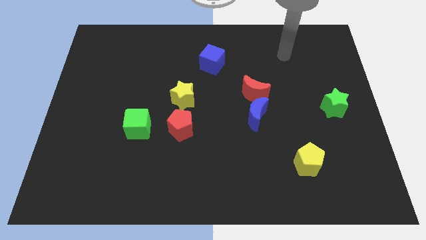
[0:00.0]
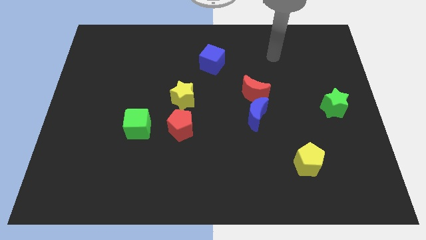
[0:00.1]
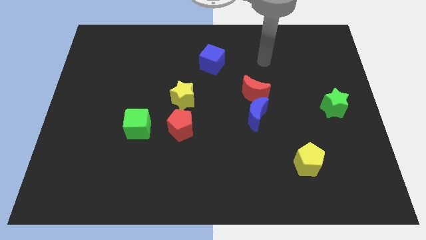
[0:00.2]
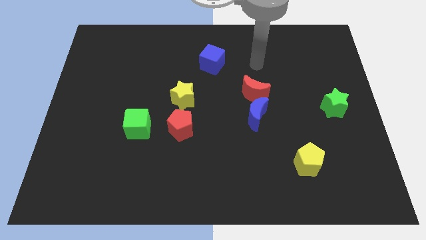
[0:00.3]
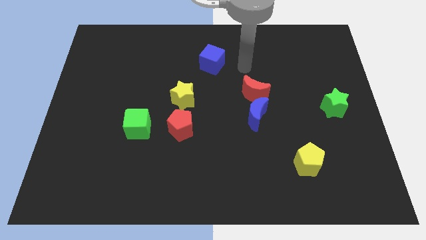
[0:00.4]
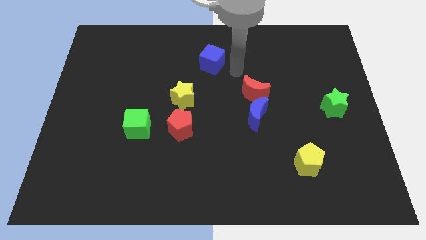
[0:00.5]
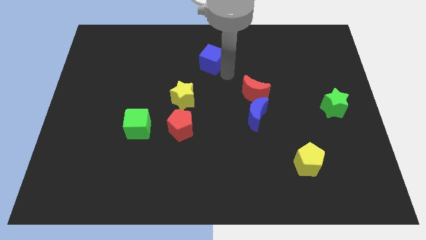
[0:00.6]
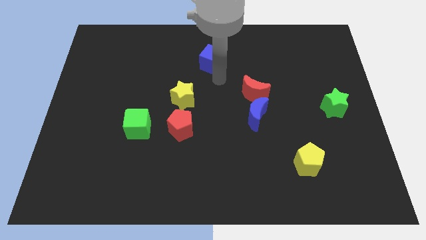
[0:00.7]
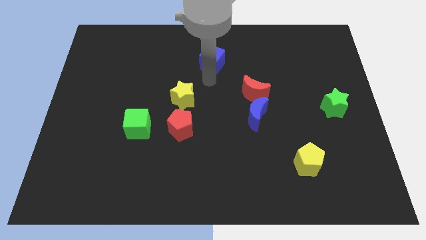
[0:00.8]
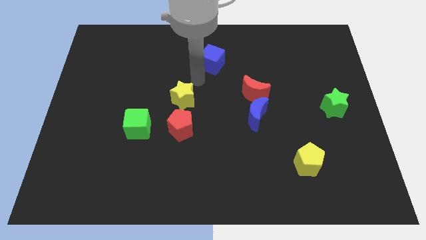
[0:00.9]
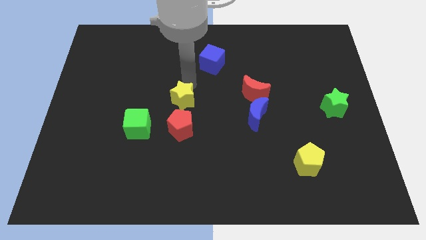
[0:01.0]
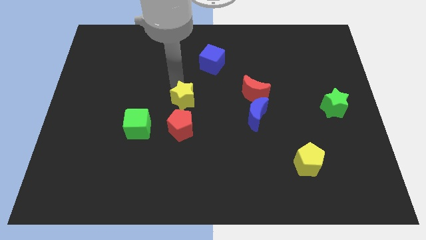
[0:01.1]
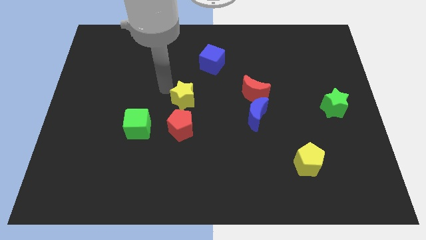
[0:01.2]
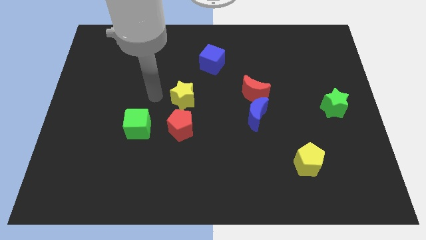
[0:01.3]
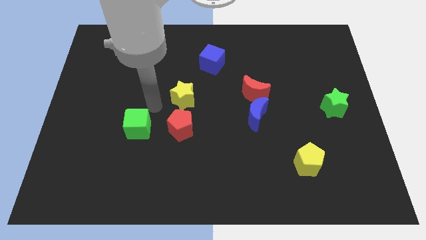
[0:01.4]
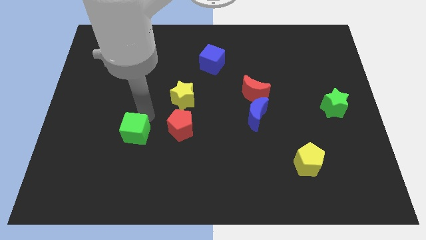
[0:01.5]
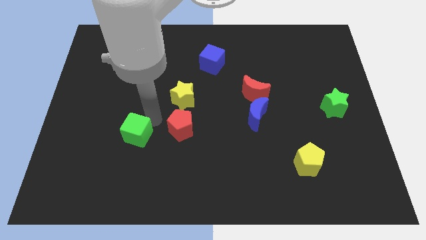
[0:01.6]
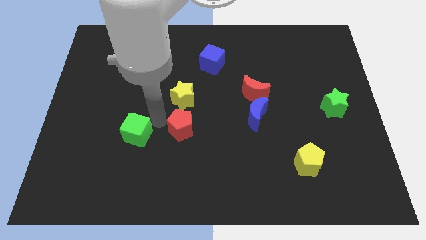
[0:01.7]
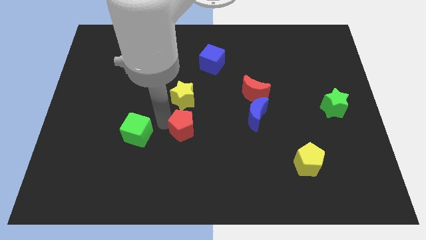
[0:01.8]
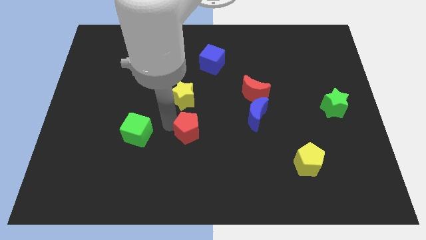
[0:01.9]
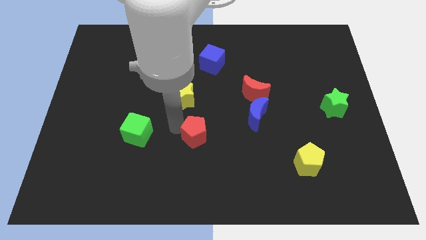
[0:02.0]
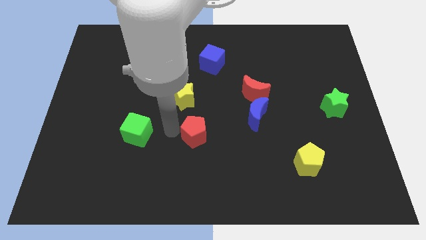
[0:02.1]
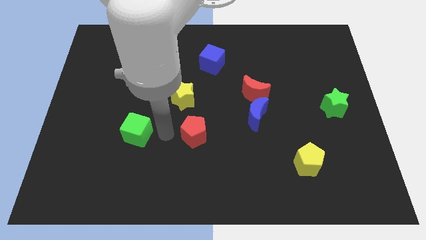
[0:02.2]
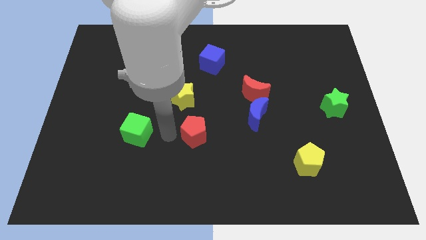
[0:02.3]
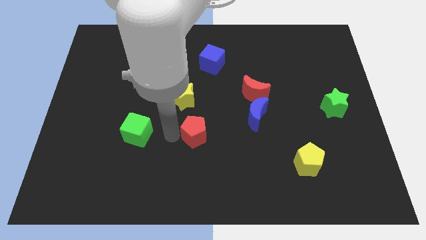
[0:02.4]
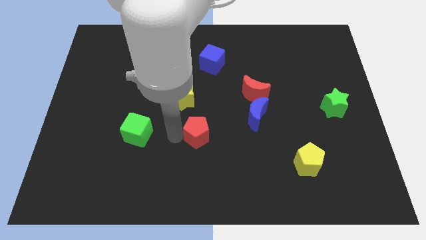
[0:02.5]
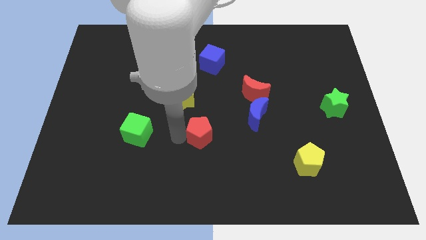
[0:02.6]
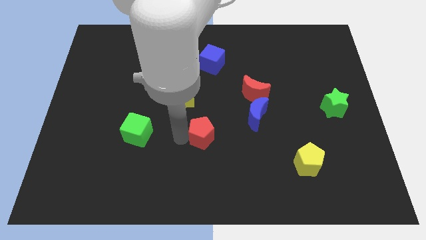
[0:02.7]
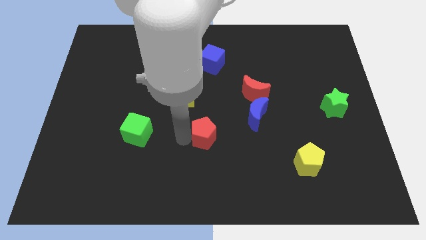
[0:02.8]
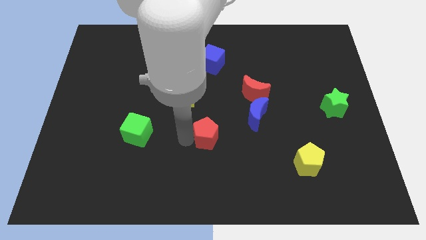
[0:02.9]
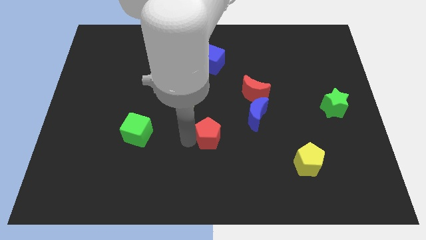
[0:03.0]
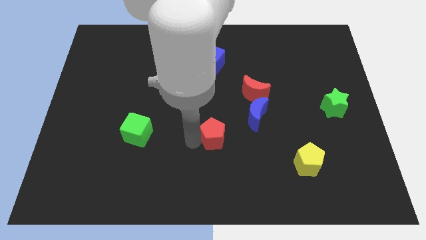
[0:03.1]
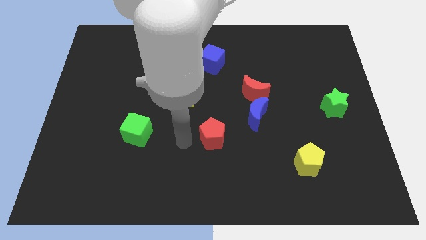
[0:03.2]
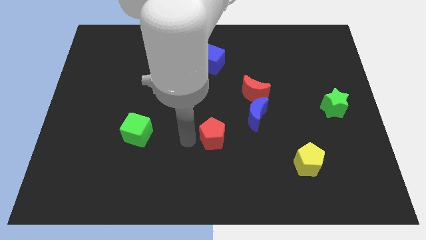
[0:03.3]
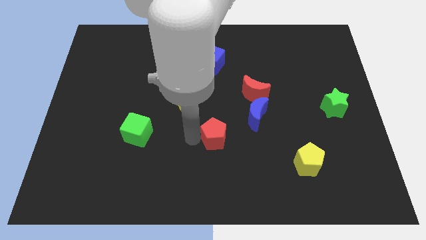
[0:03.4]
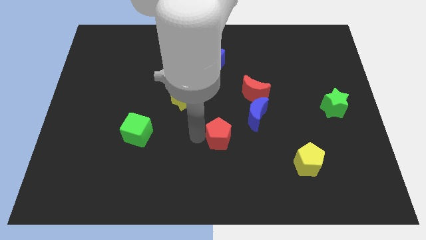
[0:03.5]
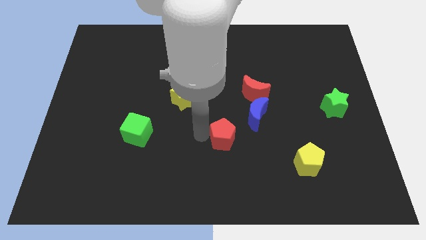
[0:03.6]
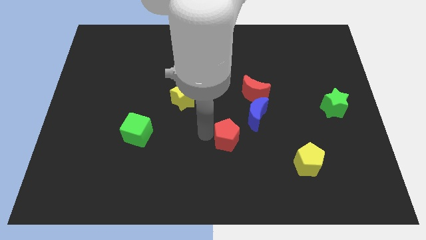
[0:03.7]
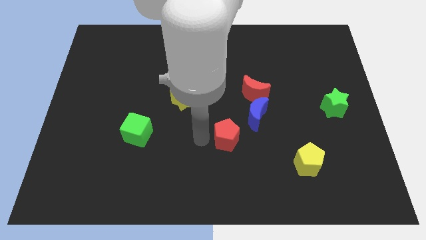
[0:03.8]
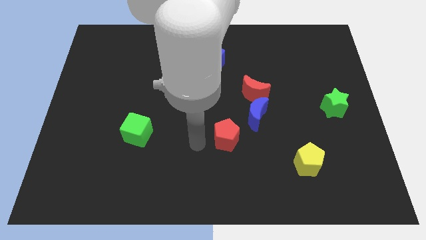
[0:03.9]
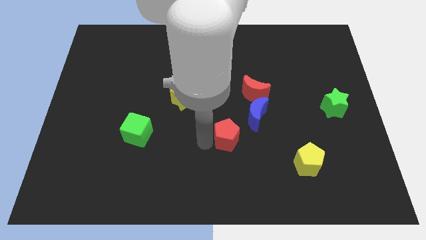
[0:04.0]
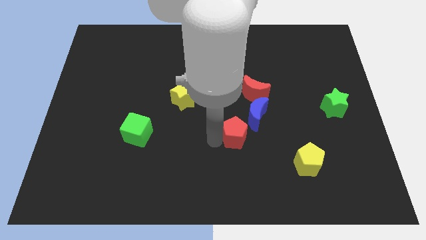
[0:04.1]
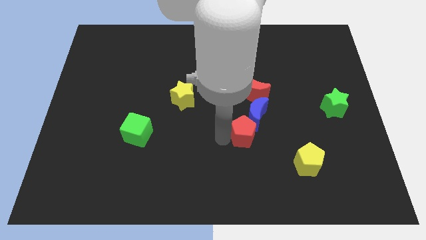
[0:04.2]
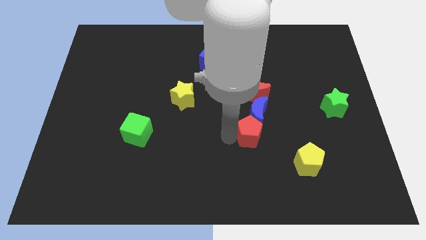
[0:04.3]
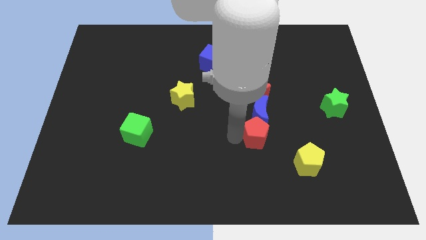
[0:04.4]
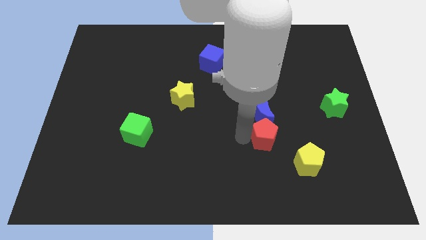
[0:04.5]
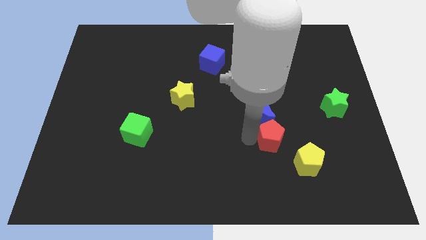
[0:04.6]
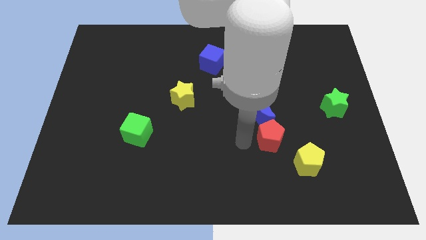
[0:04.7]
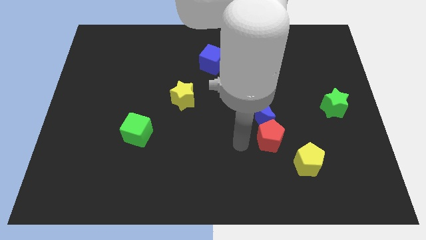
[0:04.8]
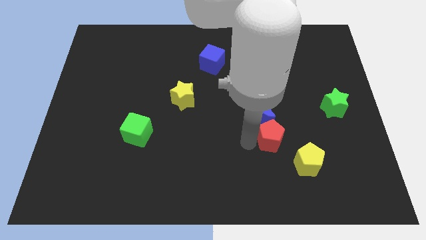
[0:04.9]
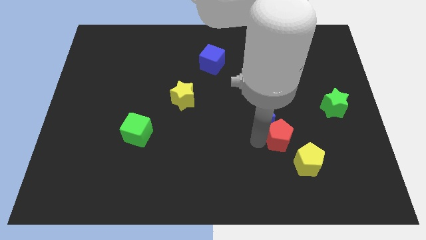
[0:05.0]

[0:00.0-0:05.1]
move the red pentagon right

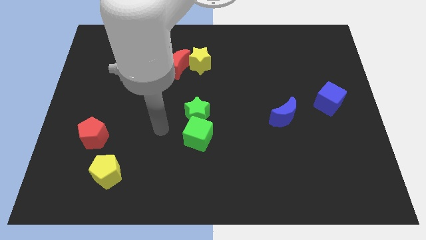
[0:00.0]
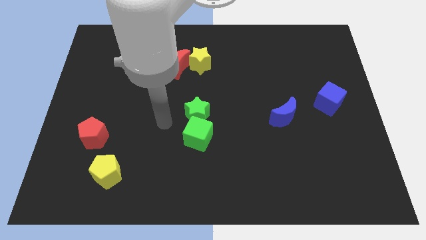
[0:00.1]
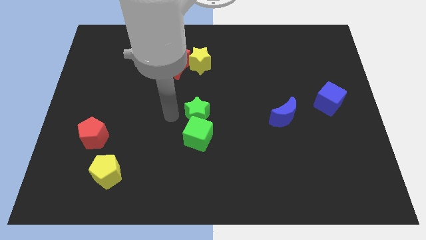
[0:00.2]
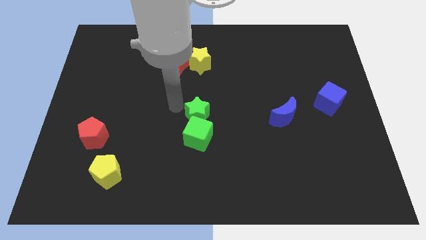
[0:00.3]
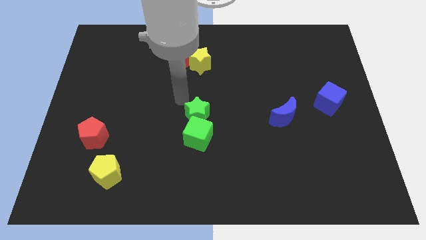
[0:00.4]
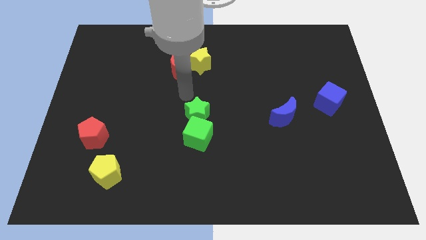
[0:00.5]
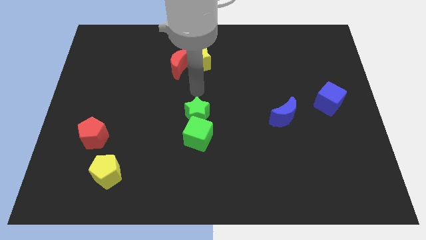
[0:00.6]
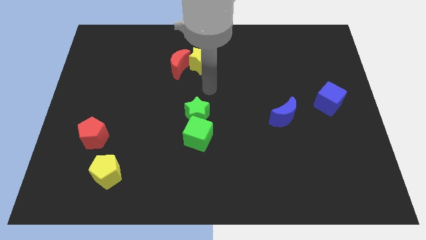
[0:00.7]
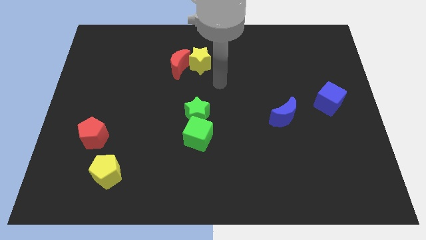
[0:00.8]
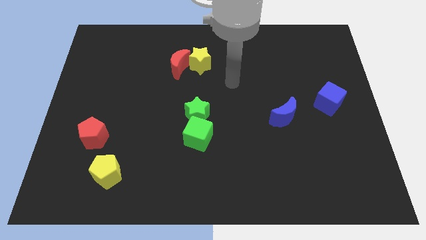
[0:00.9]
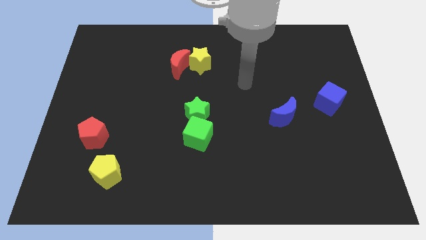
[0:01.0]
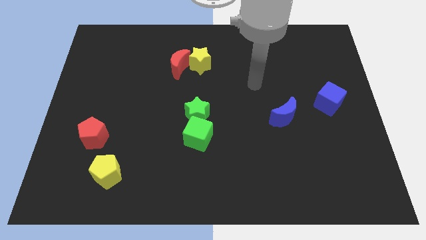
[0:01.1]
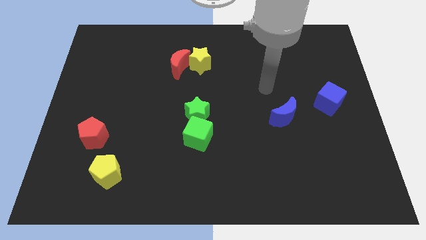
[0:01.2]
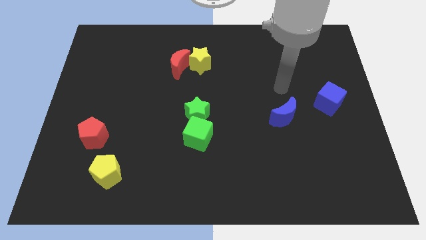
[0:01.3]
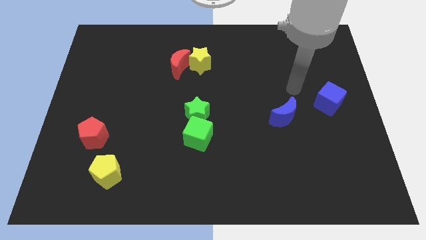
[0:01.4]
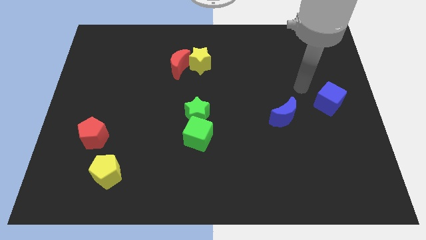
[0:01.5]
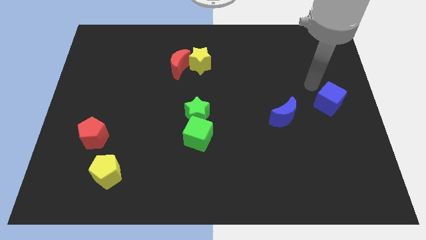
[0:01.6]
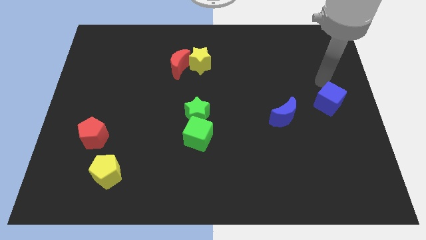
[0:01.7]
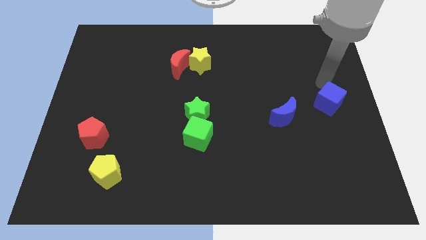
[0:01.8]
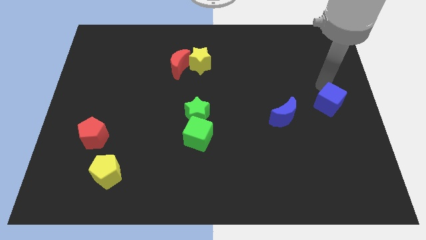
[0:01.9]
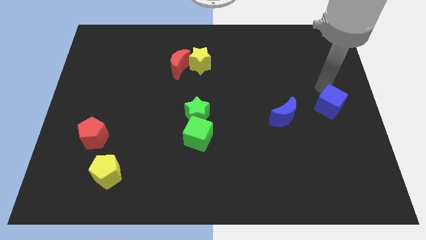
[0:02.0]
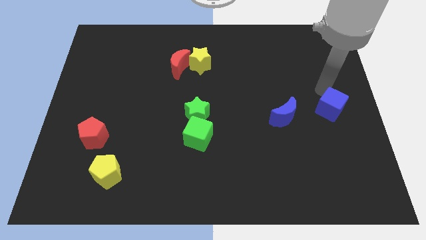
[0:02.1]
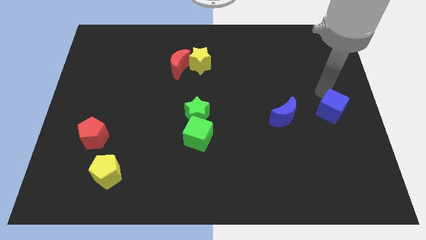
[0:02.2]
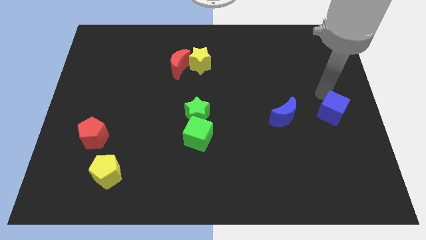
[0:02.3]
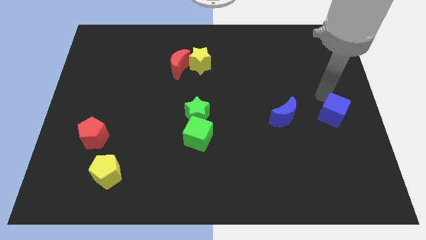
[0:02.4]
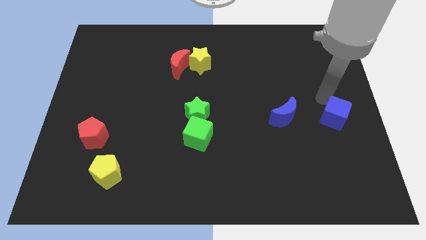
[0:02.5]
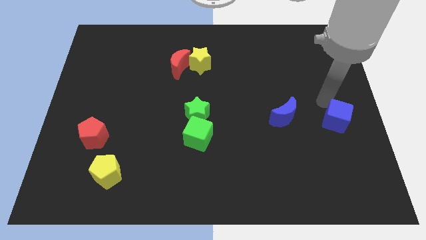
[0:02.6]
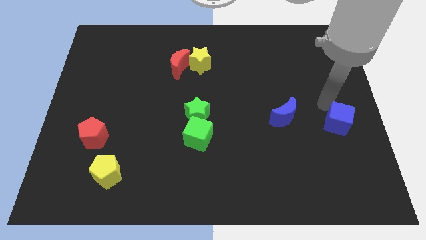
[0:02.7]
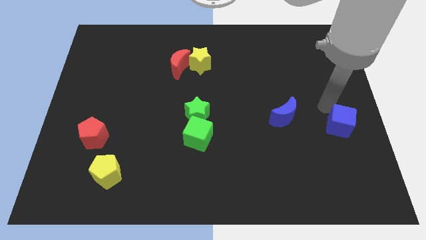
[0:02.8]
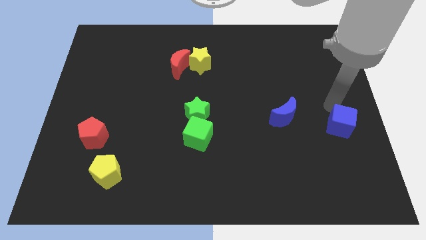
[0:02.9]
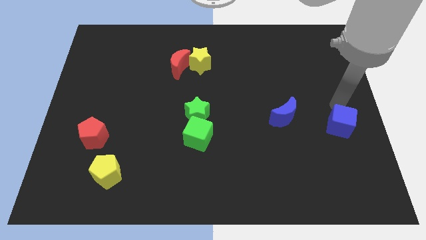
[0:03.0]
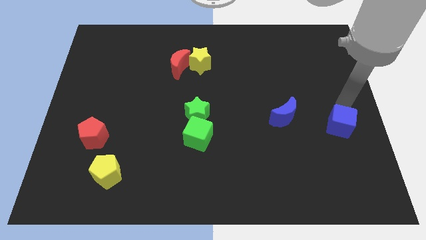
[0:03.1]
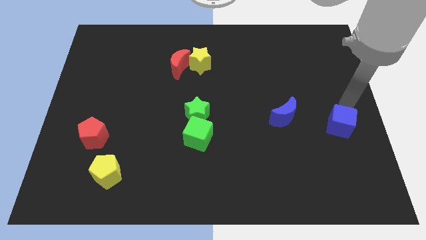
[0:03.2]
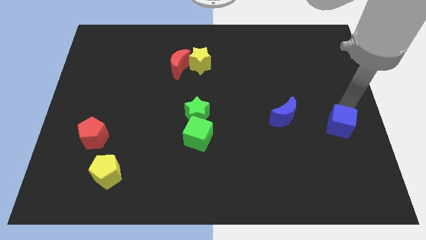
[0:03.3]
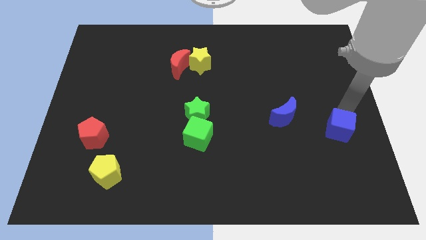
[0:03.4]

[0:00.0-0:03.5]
slightly slide the blue cube down
